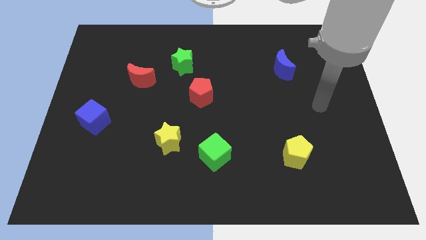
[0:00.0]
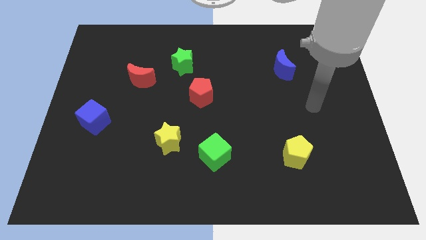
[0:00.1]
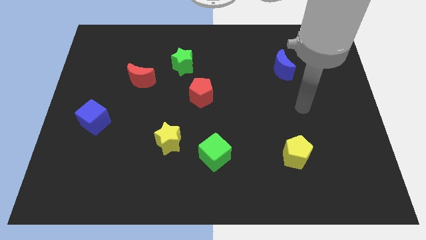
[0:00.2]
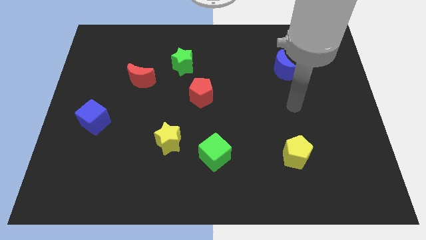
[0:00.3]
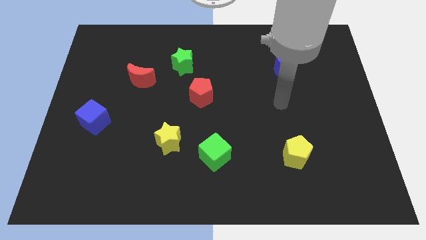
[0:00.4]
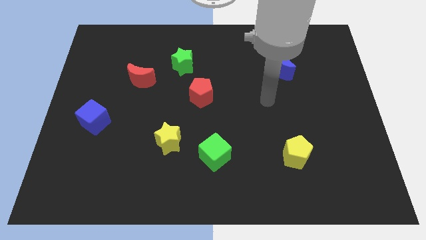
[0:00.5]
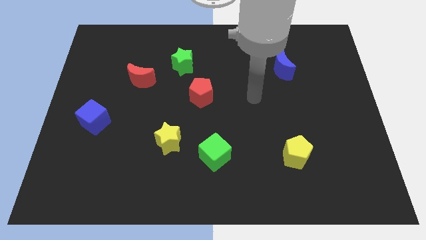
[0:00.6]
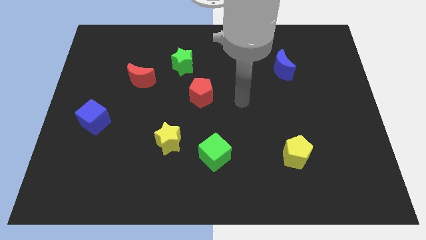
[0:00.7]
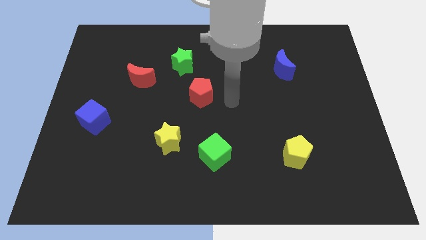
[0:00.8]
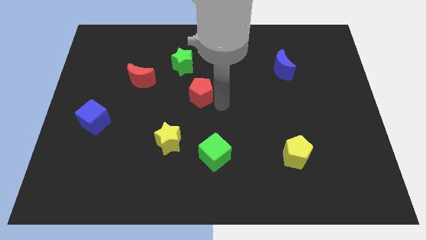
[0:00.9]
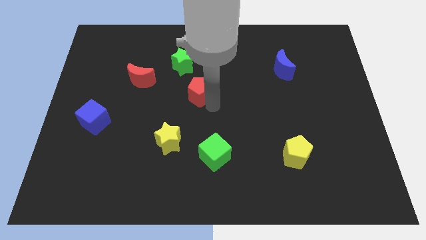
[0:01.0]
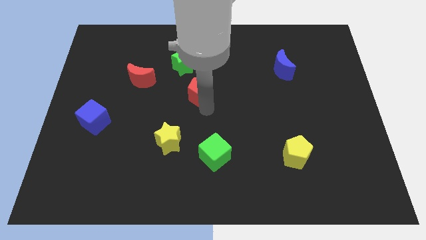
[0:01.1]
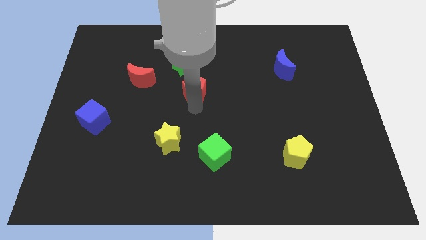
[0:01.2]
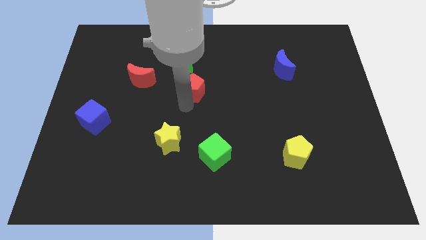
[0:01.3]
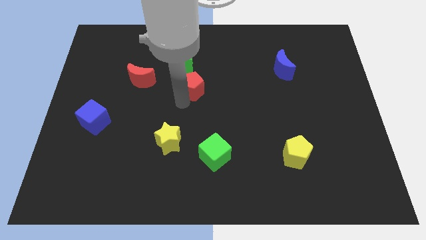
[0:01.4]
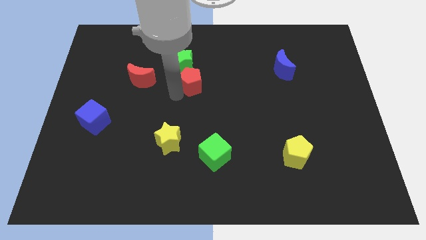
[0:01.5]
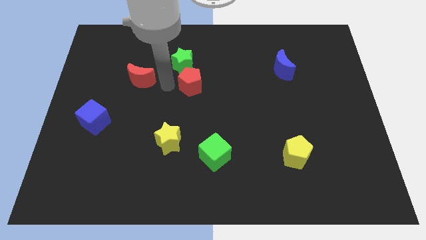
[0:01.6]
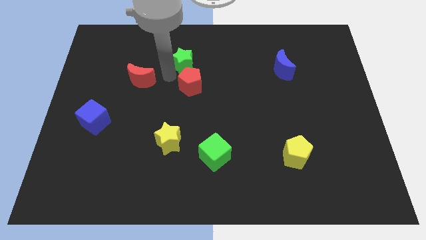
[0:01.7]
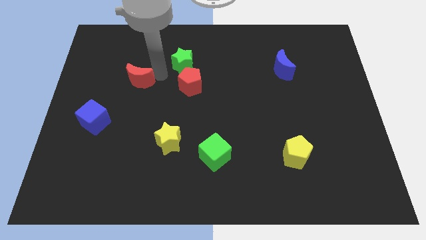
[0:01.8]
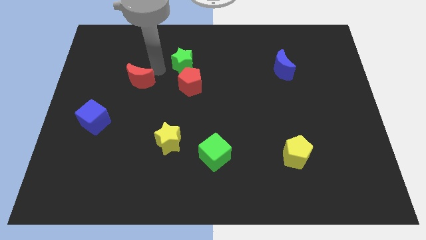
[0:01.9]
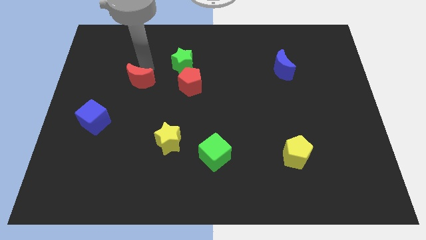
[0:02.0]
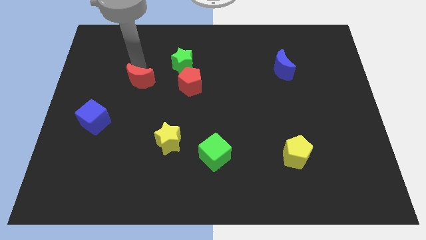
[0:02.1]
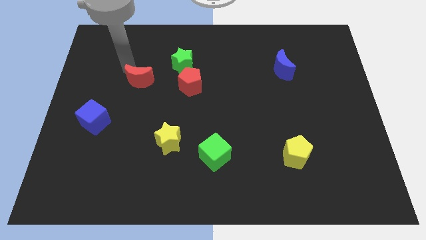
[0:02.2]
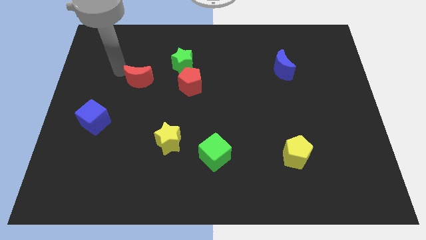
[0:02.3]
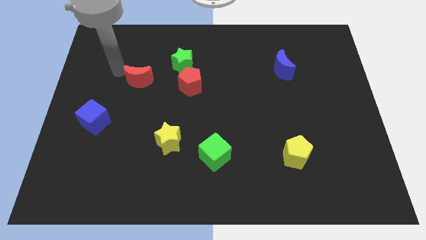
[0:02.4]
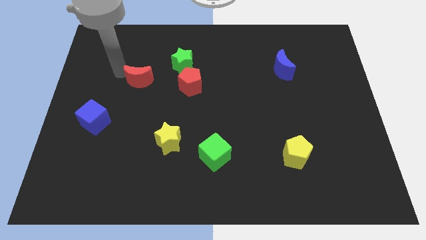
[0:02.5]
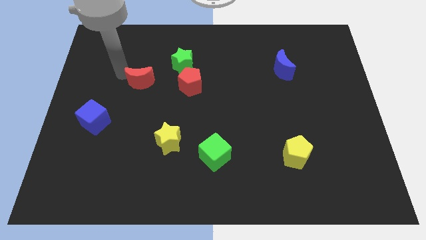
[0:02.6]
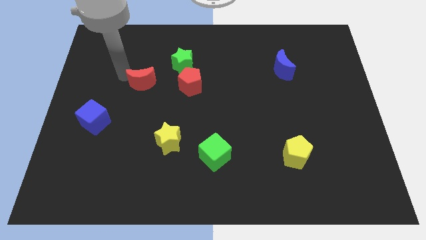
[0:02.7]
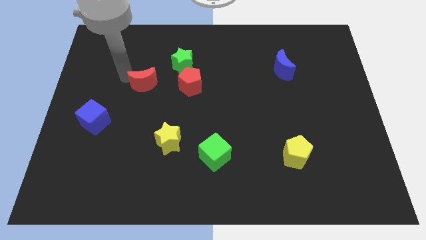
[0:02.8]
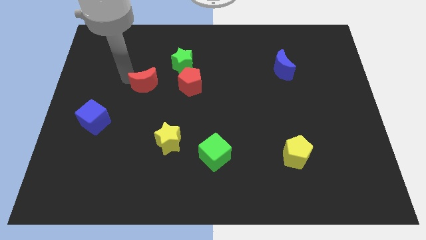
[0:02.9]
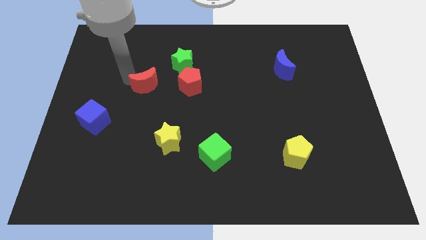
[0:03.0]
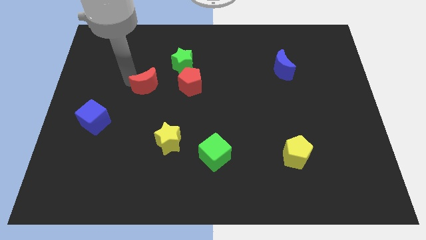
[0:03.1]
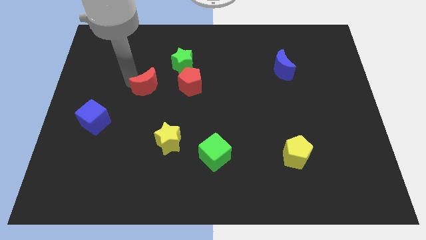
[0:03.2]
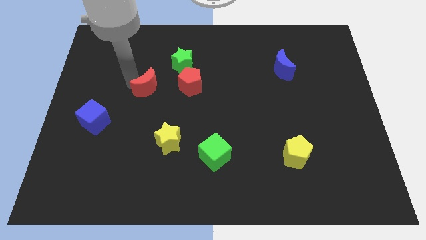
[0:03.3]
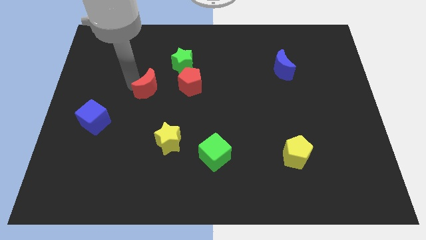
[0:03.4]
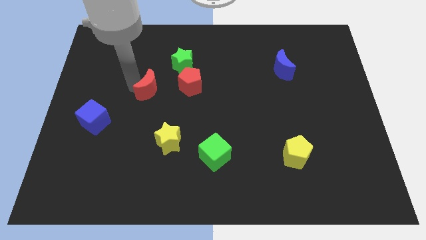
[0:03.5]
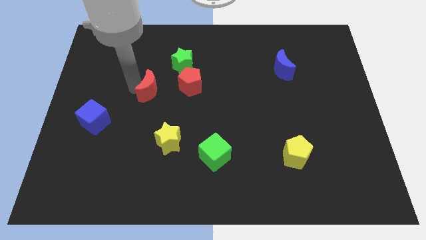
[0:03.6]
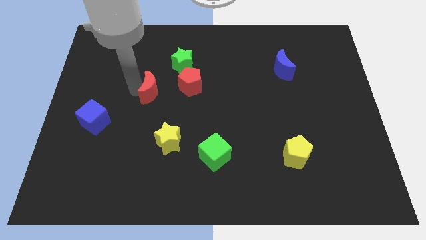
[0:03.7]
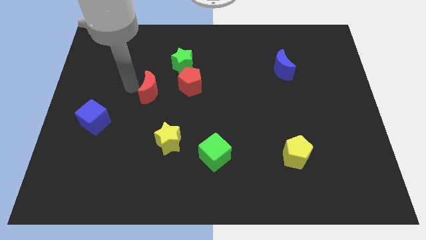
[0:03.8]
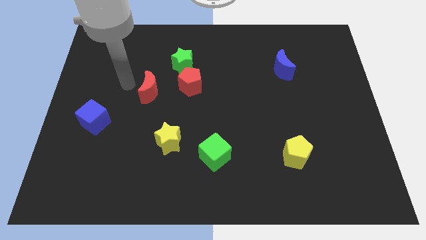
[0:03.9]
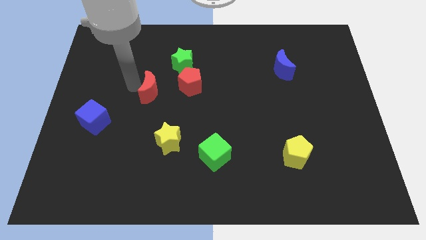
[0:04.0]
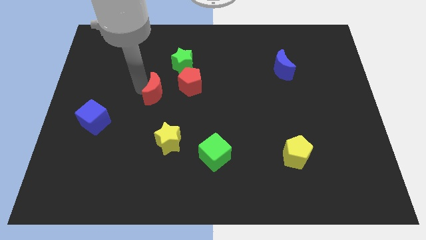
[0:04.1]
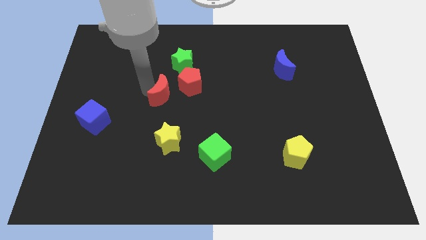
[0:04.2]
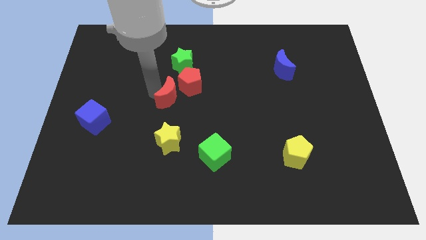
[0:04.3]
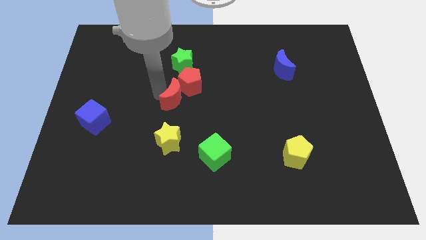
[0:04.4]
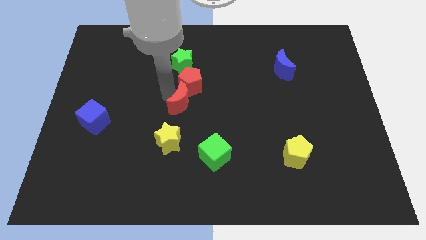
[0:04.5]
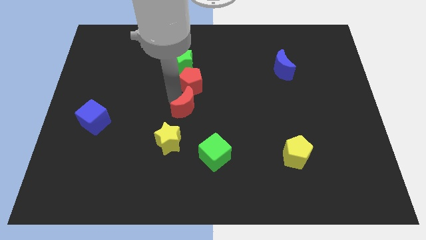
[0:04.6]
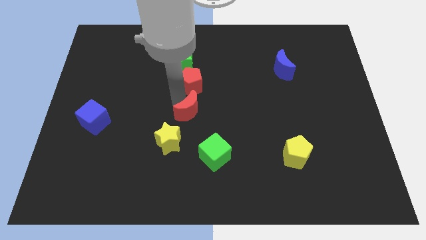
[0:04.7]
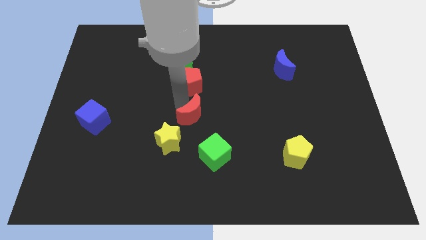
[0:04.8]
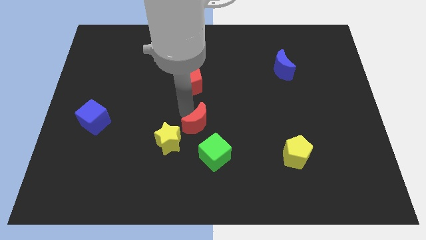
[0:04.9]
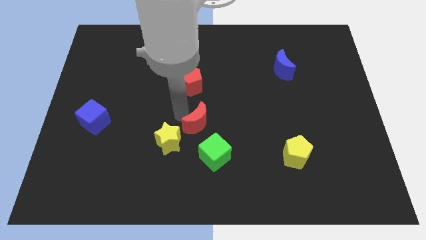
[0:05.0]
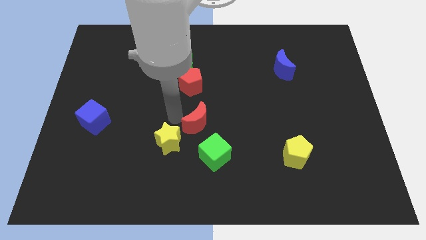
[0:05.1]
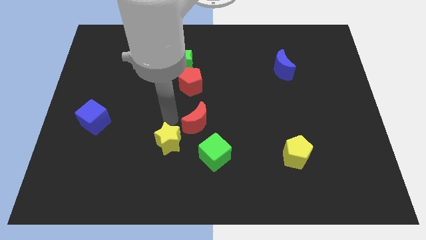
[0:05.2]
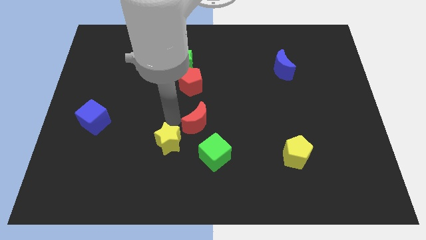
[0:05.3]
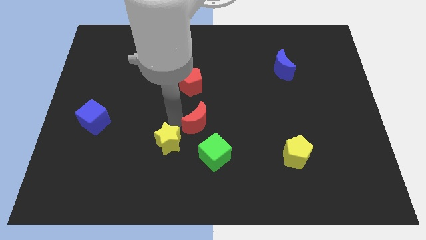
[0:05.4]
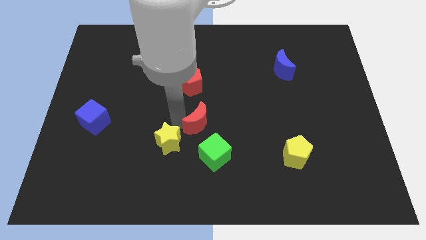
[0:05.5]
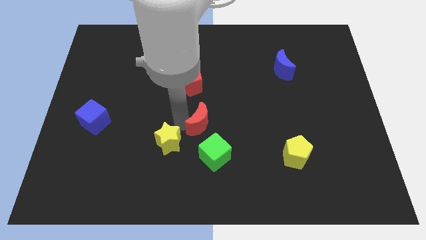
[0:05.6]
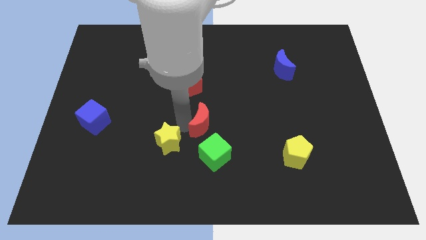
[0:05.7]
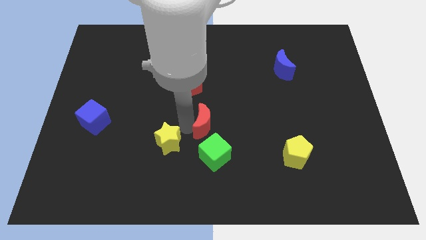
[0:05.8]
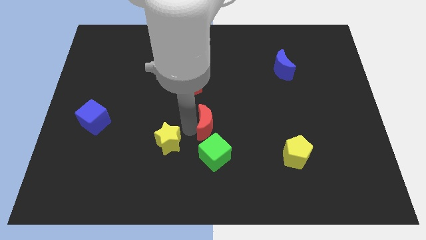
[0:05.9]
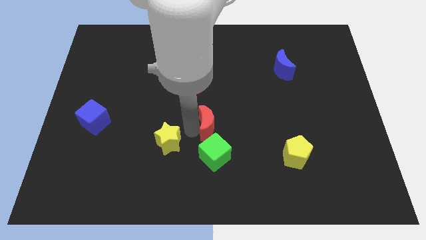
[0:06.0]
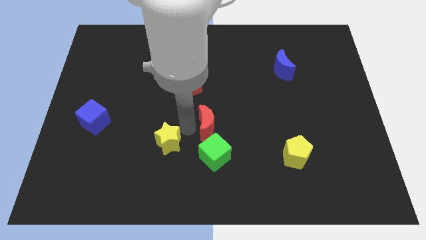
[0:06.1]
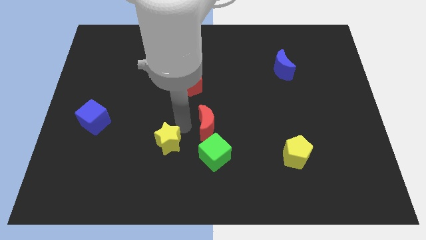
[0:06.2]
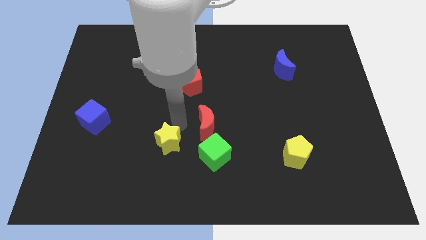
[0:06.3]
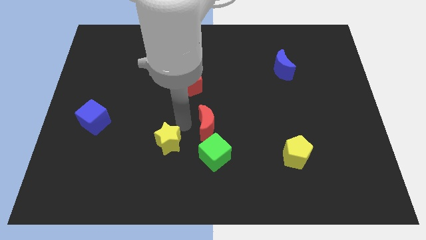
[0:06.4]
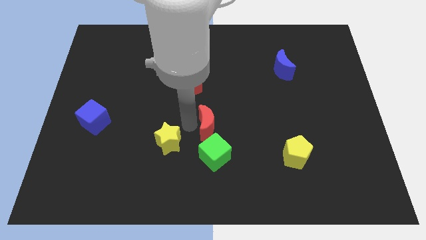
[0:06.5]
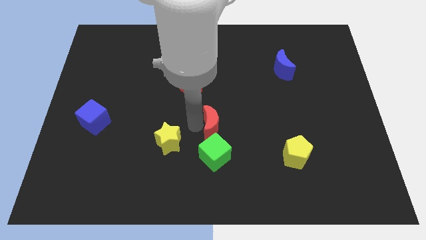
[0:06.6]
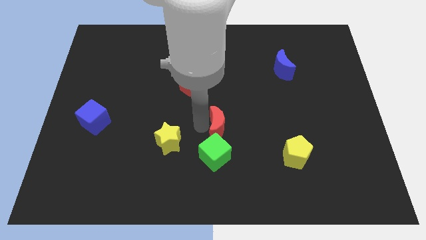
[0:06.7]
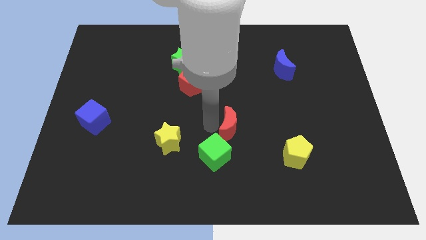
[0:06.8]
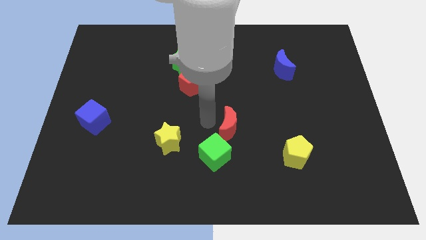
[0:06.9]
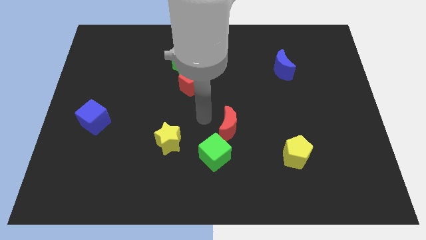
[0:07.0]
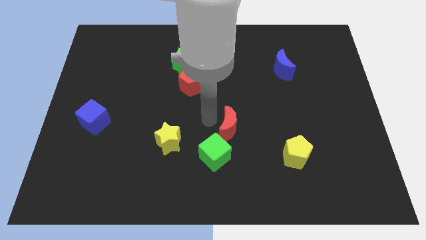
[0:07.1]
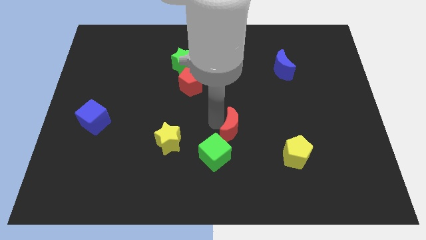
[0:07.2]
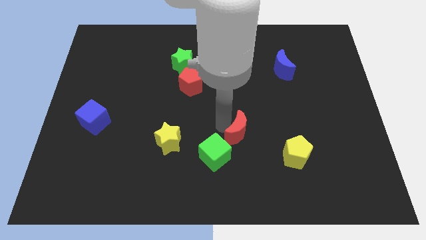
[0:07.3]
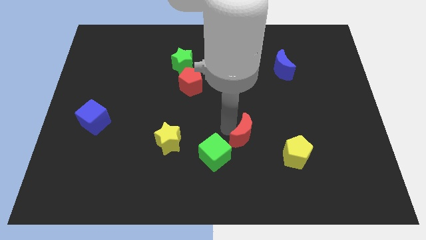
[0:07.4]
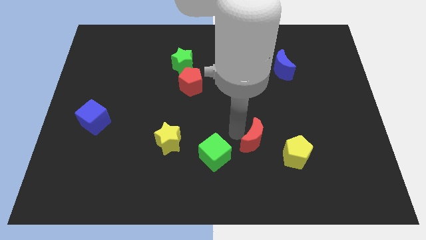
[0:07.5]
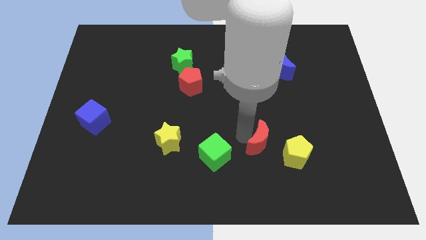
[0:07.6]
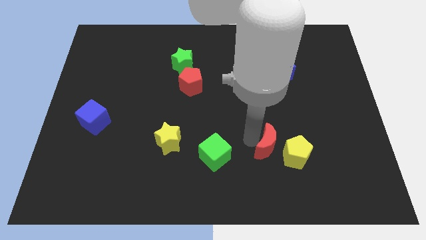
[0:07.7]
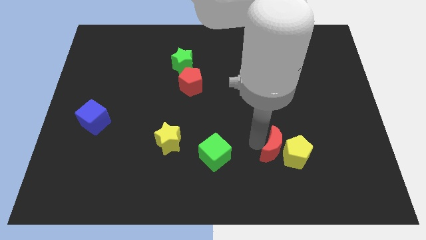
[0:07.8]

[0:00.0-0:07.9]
move the red moon close to the yellow pentagon
